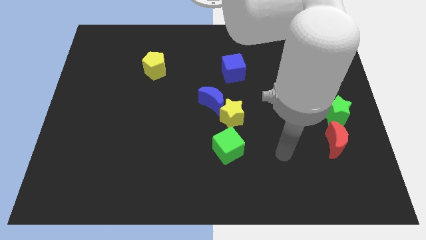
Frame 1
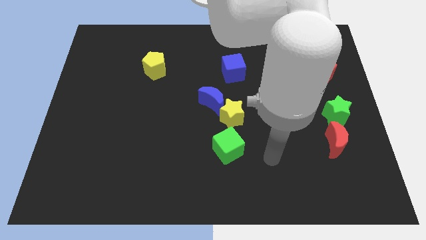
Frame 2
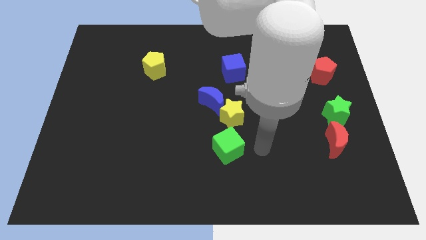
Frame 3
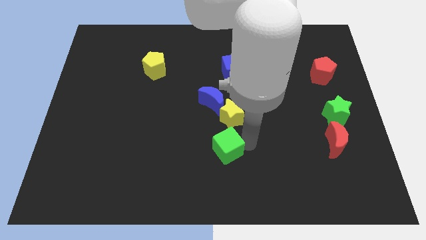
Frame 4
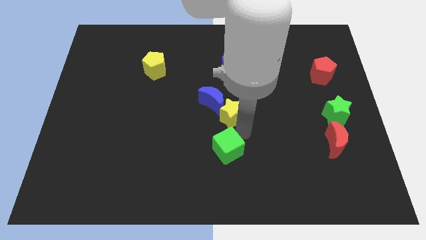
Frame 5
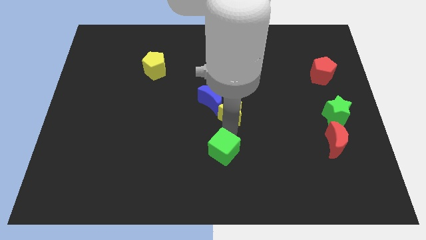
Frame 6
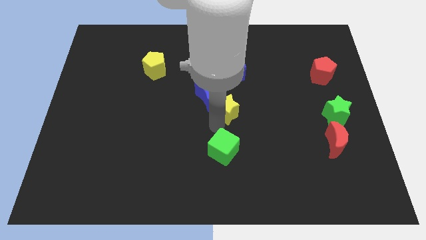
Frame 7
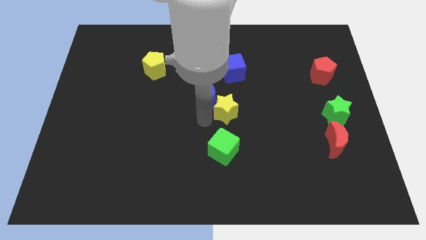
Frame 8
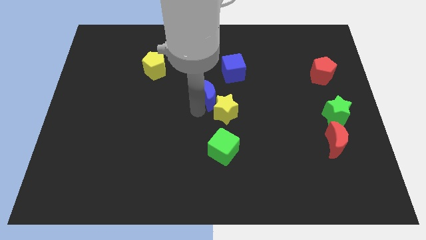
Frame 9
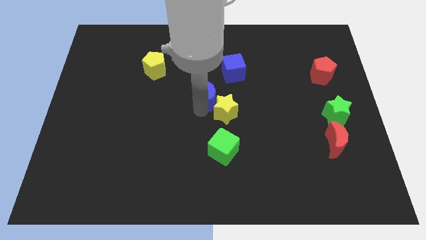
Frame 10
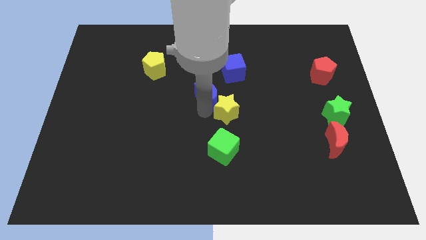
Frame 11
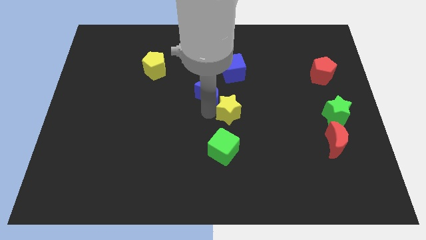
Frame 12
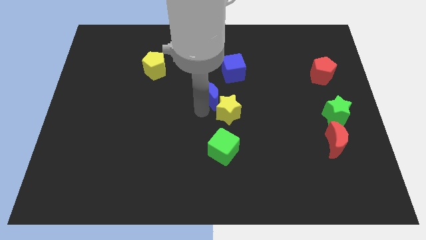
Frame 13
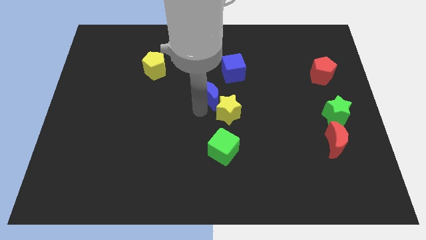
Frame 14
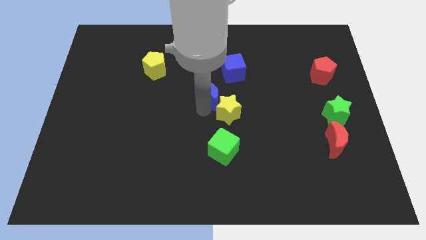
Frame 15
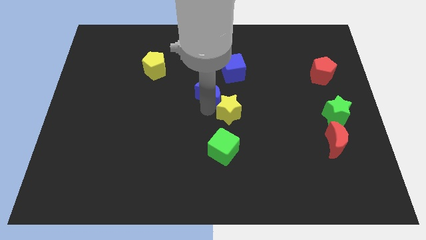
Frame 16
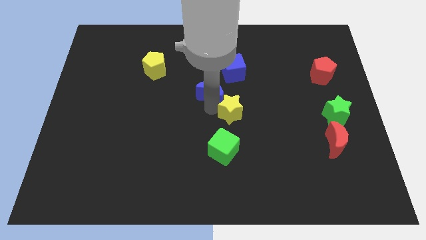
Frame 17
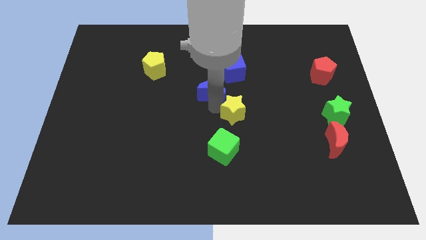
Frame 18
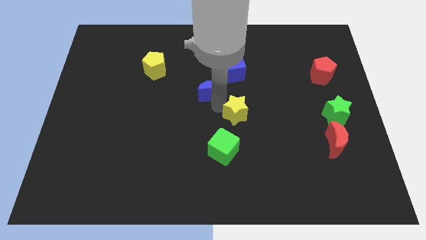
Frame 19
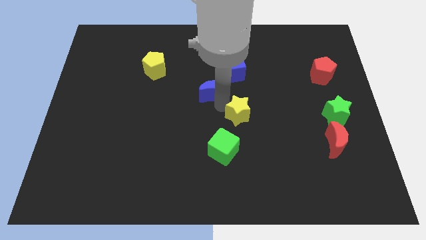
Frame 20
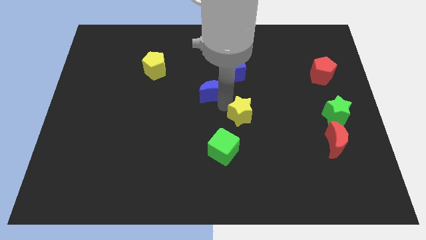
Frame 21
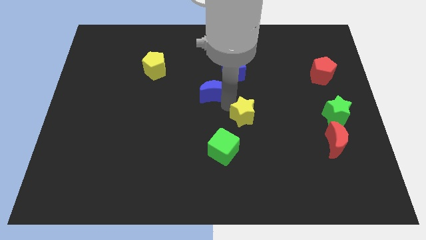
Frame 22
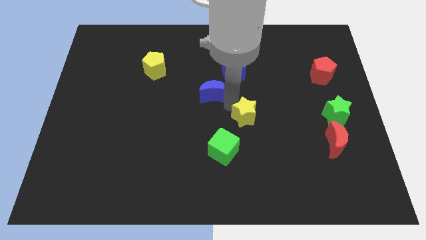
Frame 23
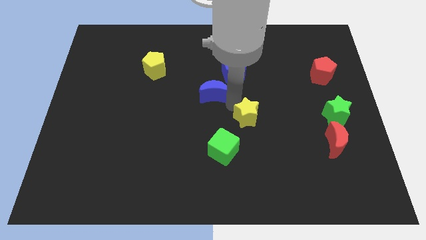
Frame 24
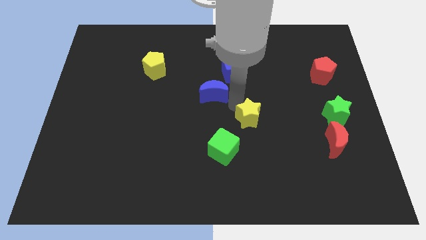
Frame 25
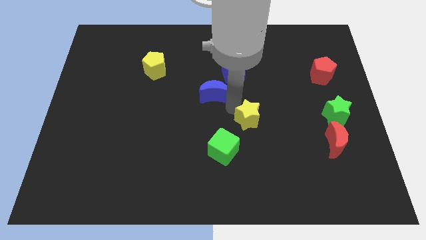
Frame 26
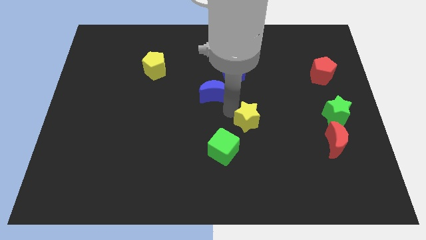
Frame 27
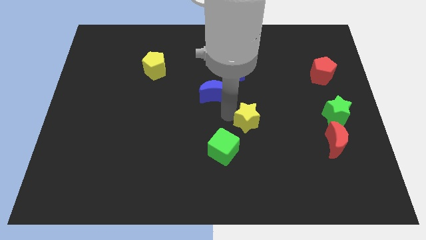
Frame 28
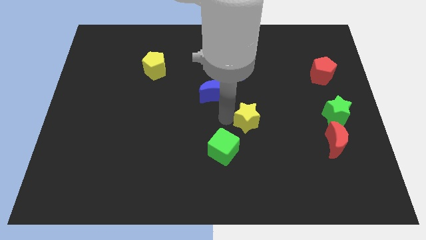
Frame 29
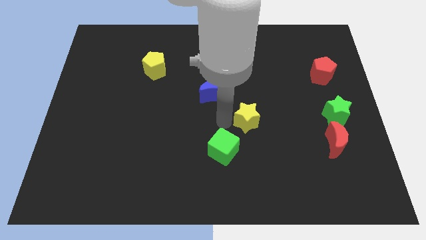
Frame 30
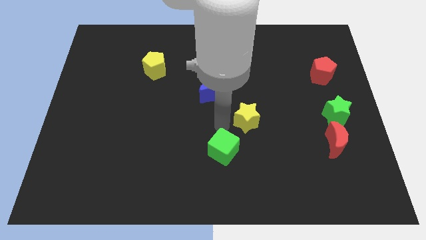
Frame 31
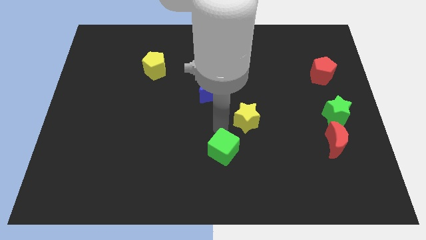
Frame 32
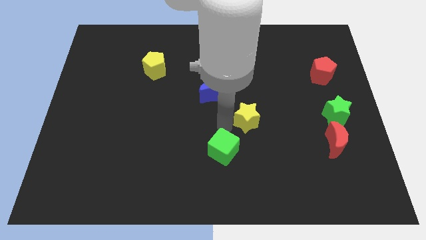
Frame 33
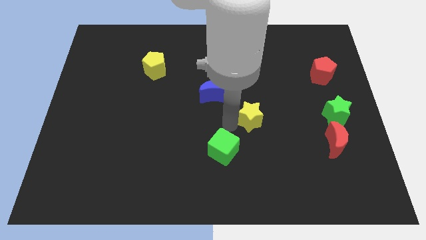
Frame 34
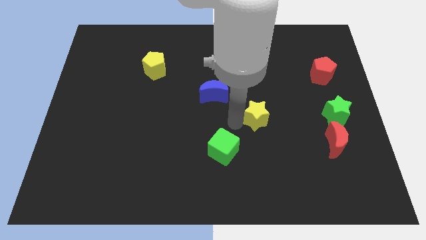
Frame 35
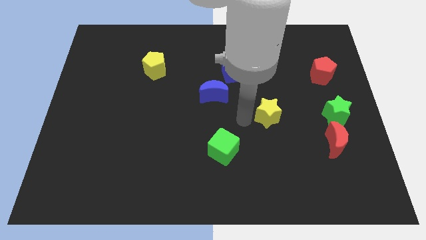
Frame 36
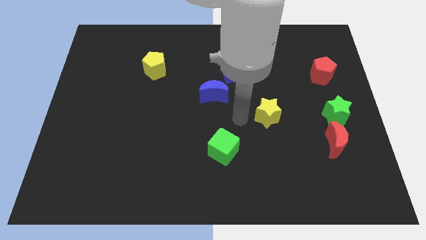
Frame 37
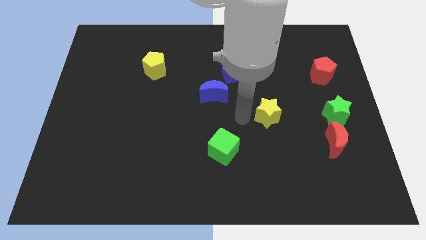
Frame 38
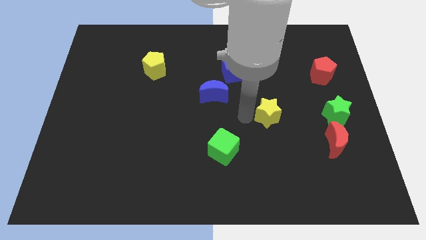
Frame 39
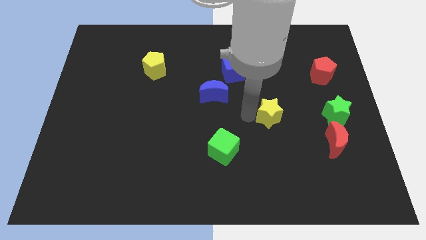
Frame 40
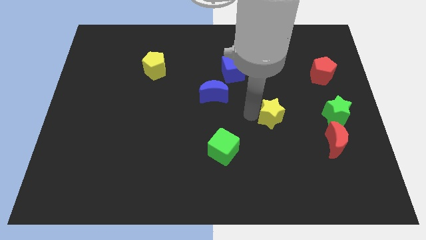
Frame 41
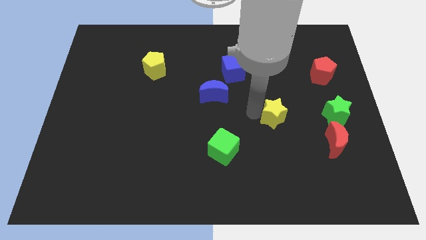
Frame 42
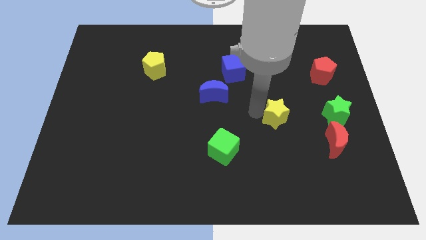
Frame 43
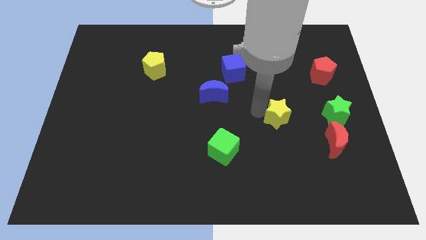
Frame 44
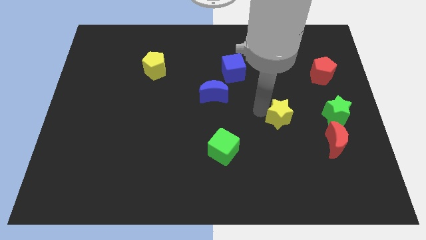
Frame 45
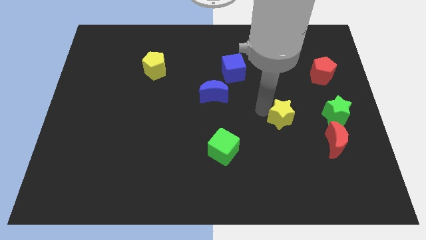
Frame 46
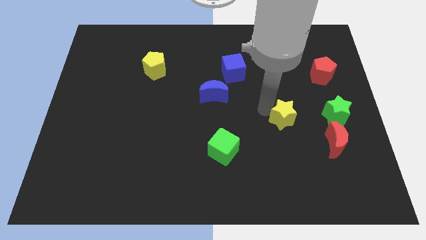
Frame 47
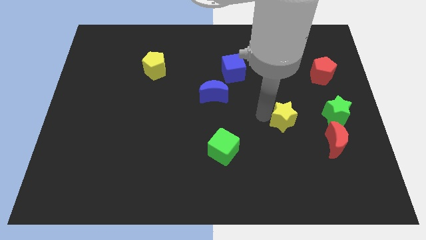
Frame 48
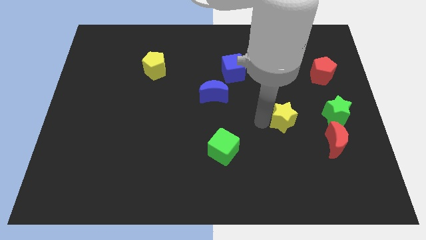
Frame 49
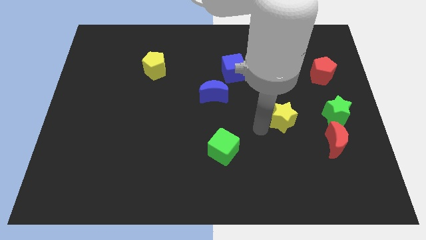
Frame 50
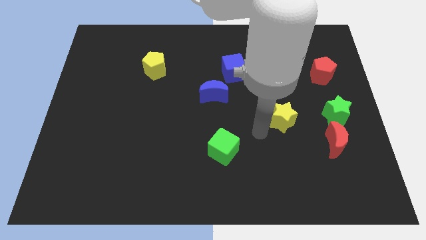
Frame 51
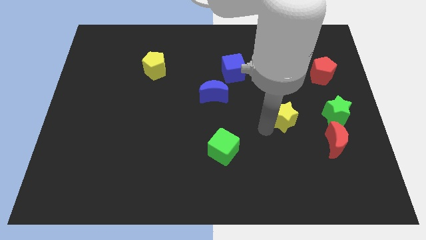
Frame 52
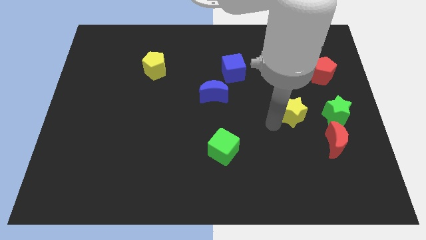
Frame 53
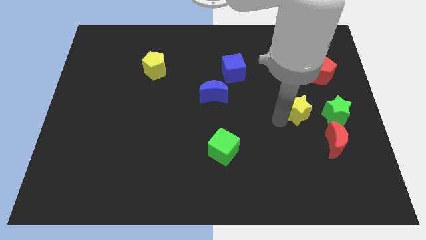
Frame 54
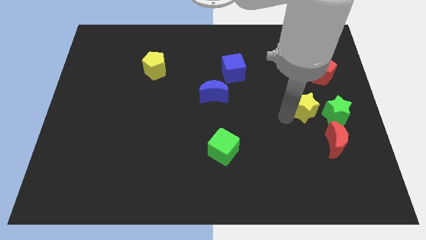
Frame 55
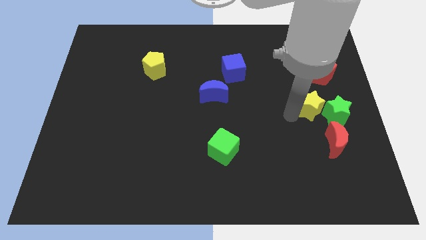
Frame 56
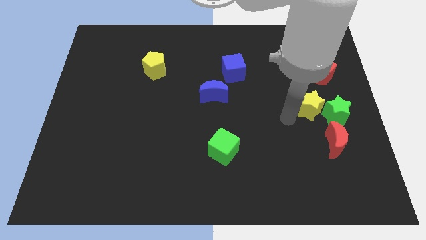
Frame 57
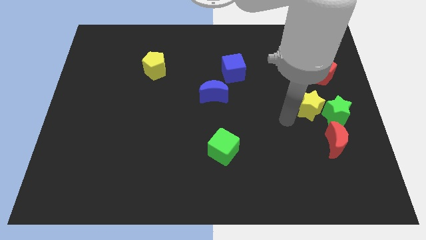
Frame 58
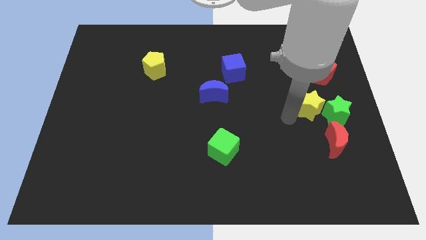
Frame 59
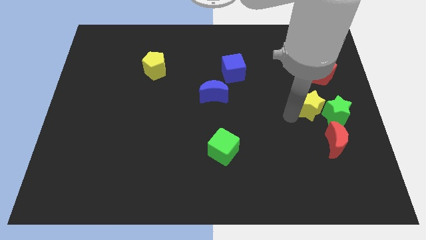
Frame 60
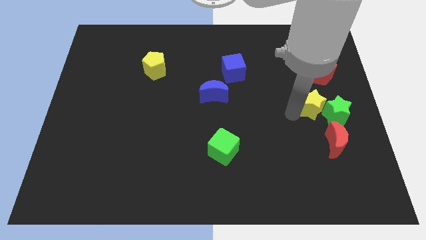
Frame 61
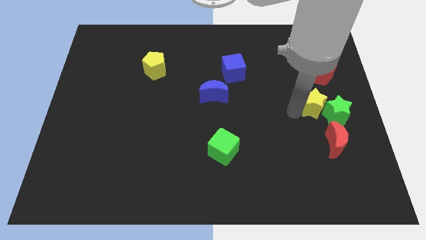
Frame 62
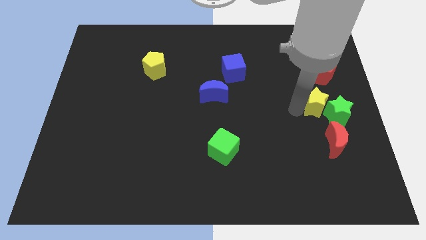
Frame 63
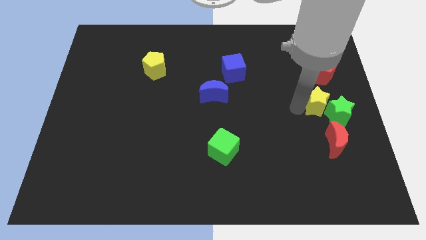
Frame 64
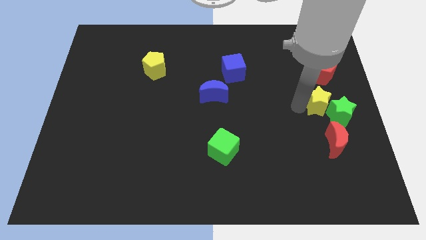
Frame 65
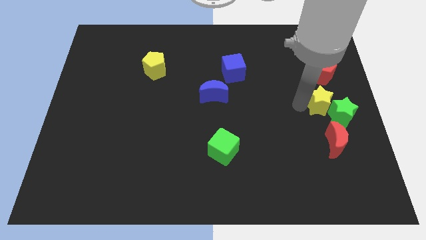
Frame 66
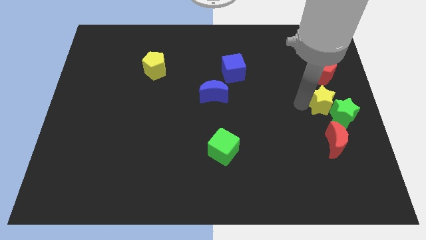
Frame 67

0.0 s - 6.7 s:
push the yellow star to the center right
